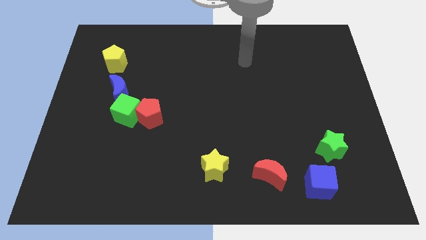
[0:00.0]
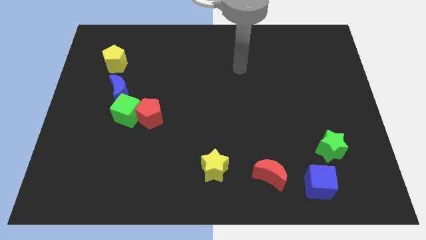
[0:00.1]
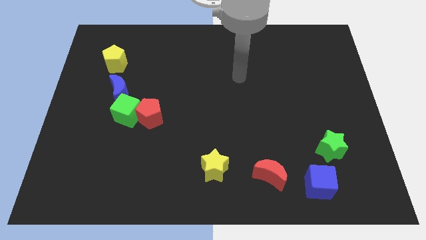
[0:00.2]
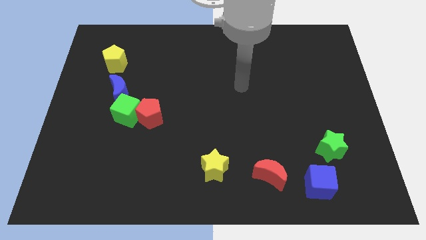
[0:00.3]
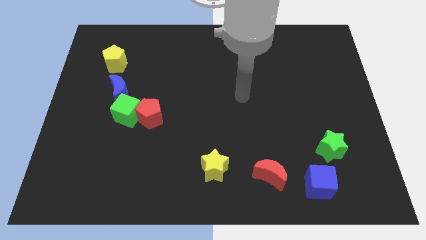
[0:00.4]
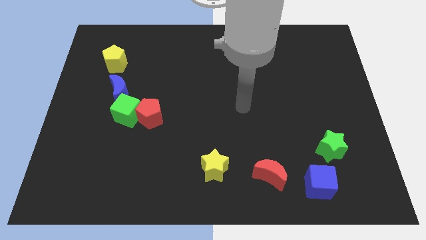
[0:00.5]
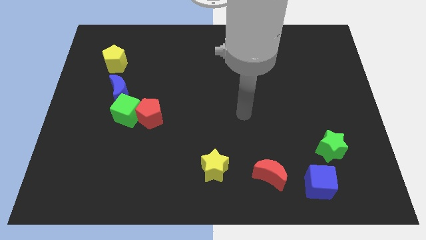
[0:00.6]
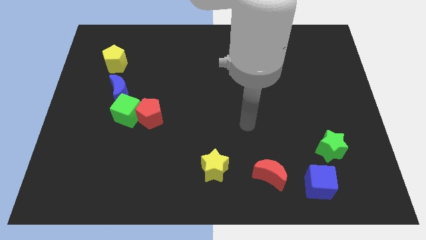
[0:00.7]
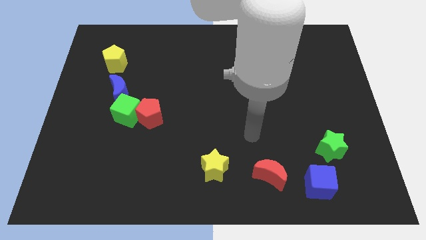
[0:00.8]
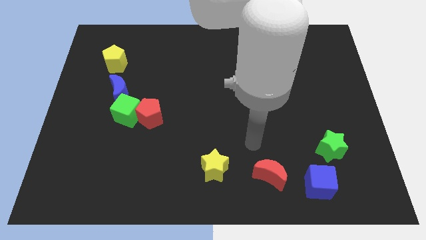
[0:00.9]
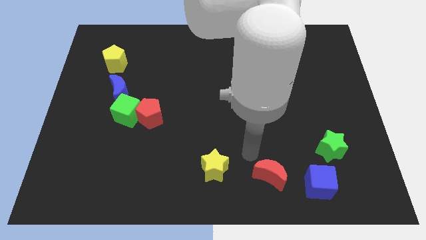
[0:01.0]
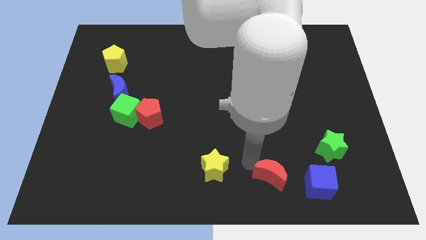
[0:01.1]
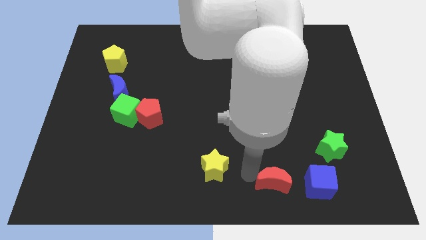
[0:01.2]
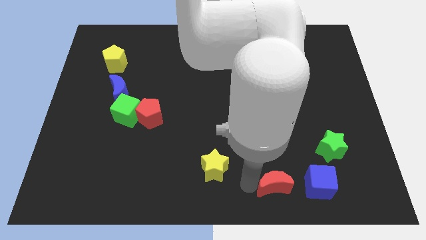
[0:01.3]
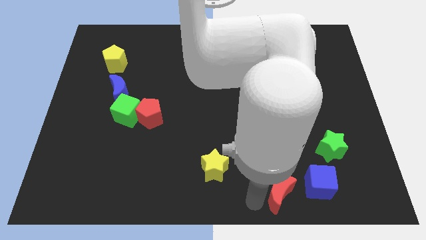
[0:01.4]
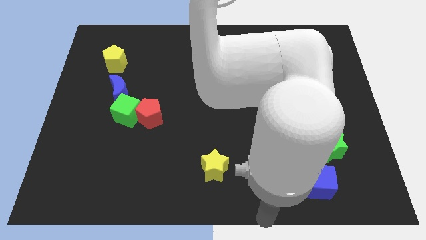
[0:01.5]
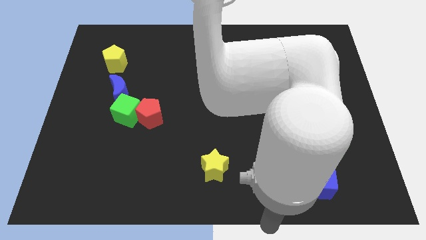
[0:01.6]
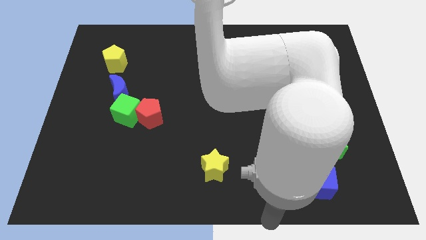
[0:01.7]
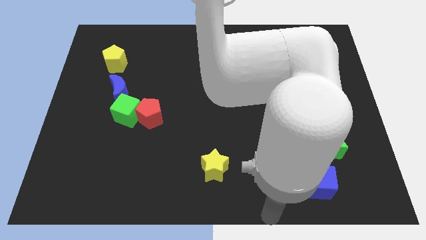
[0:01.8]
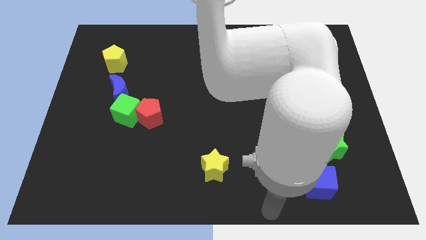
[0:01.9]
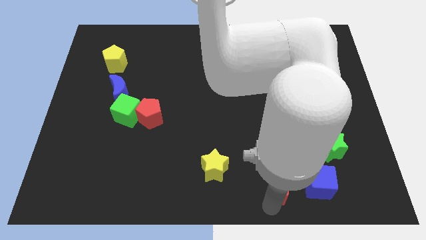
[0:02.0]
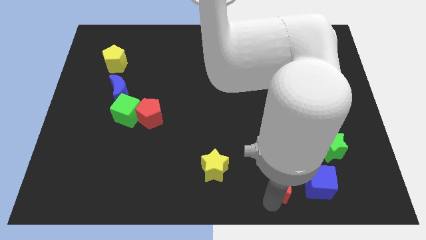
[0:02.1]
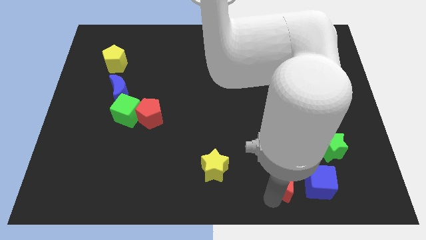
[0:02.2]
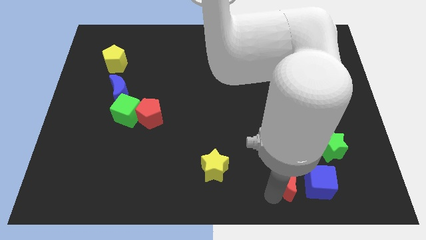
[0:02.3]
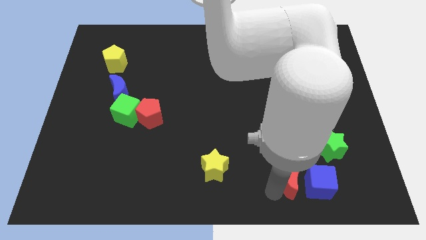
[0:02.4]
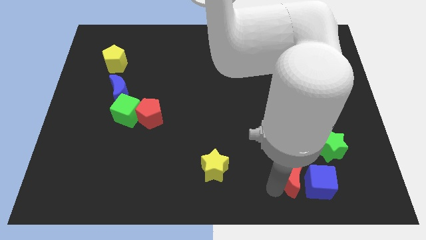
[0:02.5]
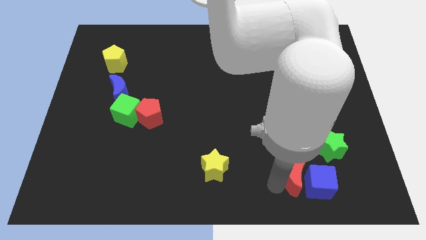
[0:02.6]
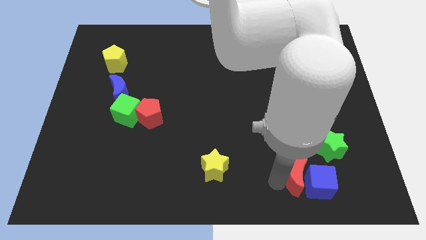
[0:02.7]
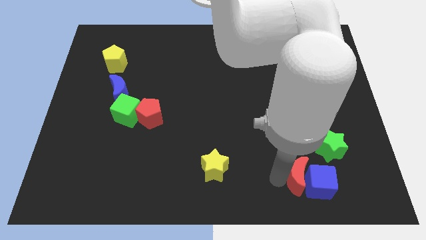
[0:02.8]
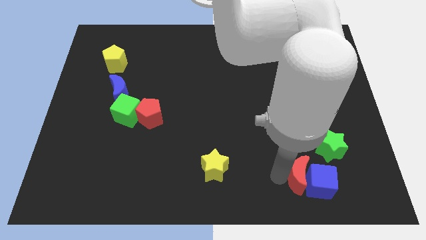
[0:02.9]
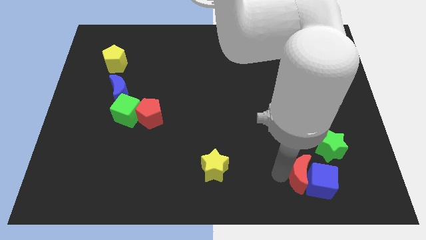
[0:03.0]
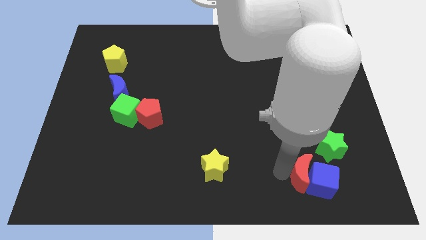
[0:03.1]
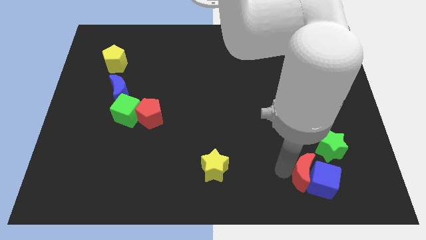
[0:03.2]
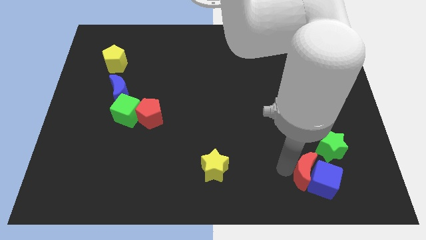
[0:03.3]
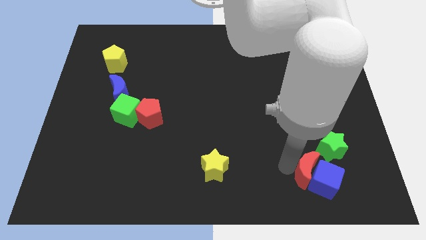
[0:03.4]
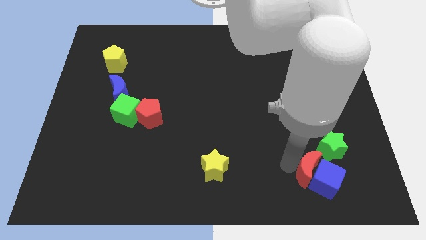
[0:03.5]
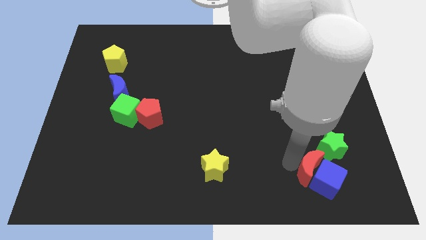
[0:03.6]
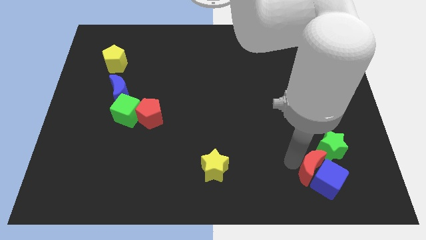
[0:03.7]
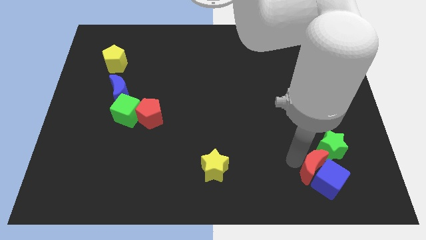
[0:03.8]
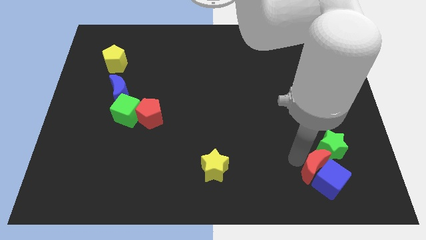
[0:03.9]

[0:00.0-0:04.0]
move the red moon diagonally up and to the right a little

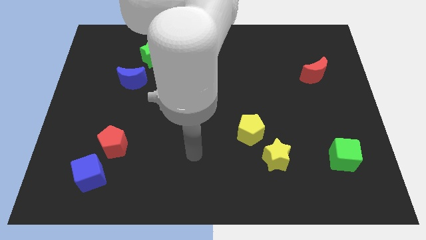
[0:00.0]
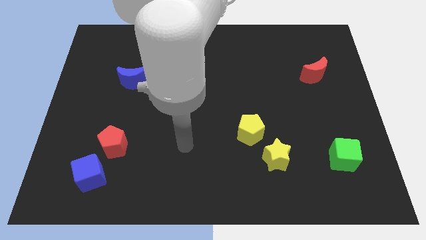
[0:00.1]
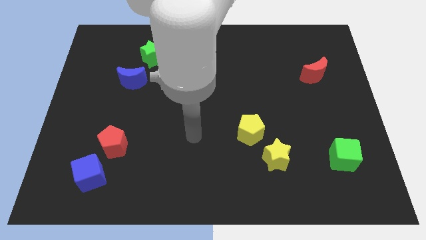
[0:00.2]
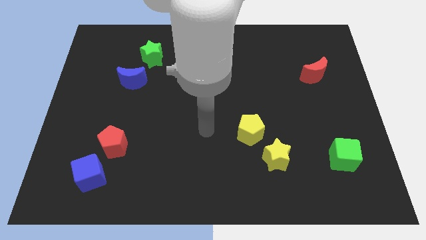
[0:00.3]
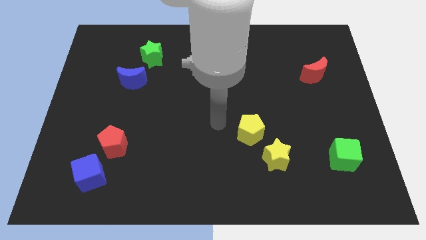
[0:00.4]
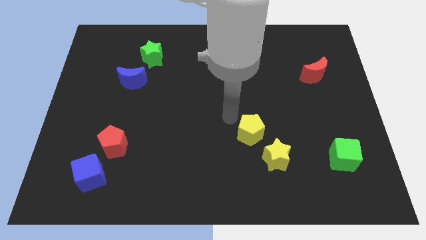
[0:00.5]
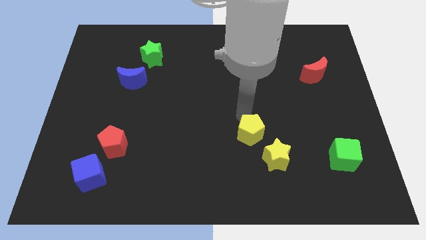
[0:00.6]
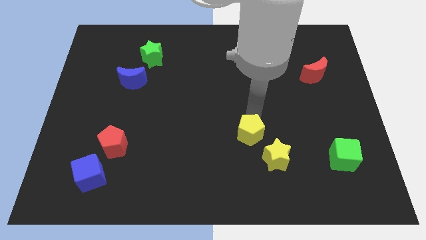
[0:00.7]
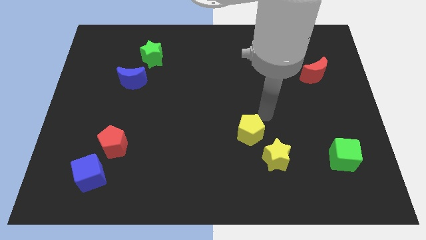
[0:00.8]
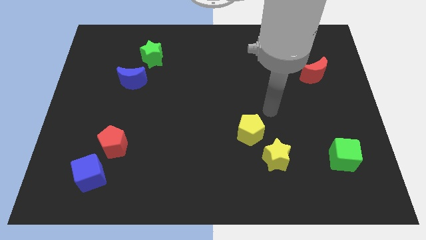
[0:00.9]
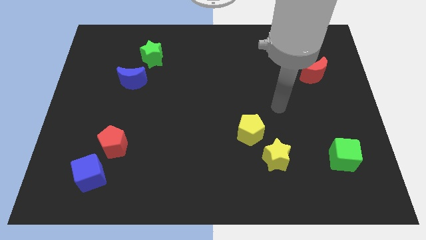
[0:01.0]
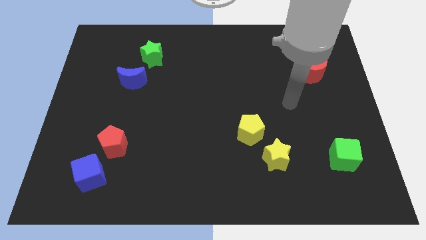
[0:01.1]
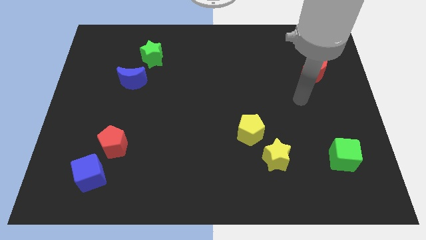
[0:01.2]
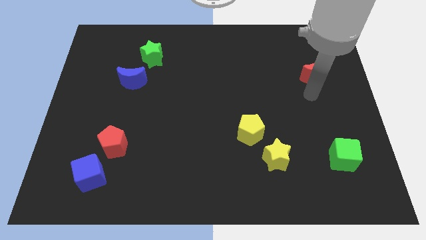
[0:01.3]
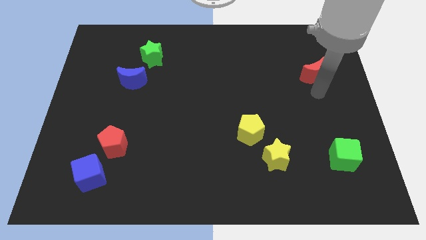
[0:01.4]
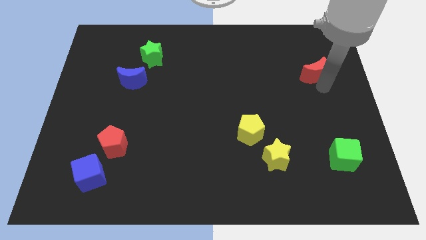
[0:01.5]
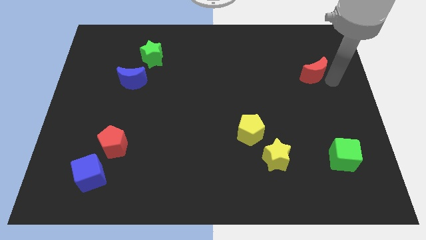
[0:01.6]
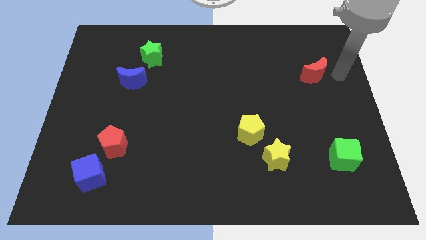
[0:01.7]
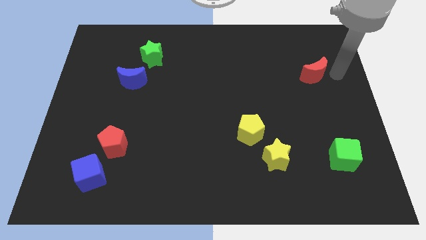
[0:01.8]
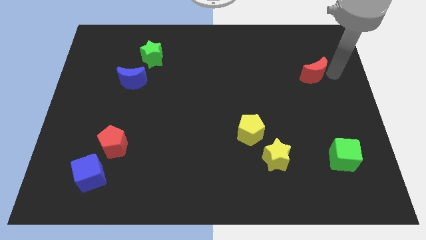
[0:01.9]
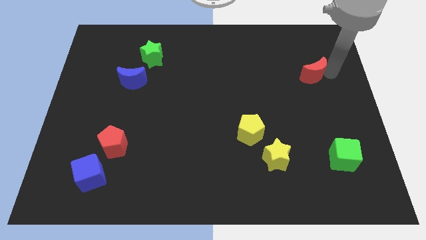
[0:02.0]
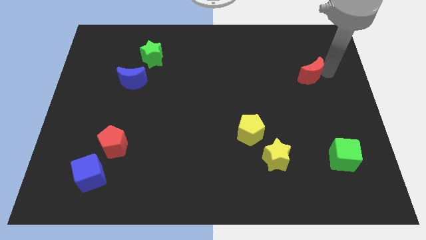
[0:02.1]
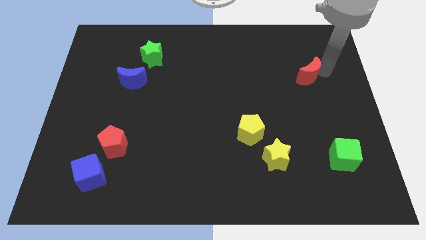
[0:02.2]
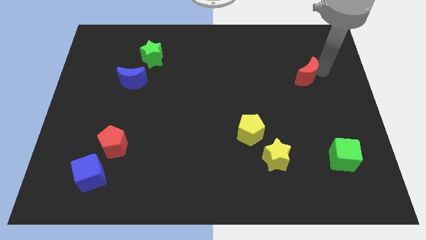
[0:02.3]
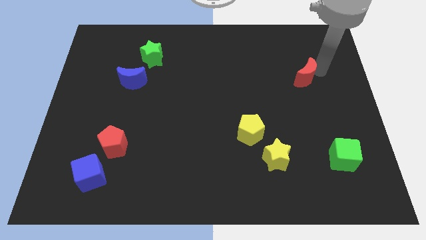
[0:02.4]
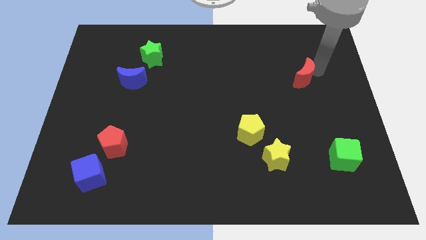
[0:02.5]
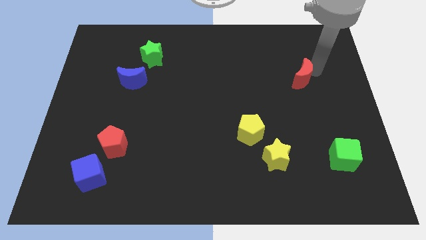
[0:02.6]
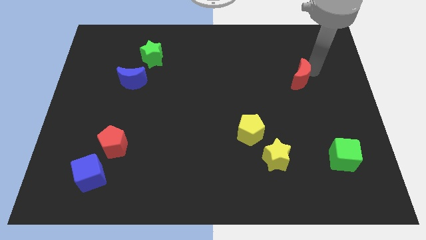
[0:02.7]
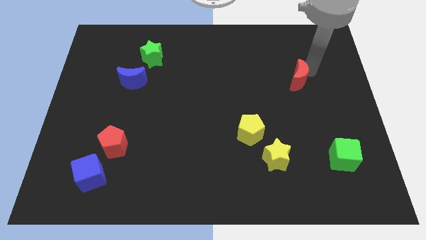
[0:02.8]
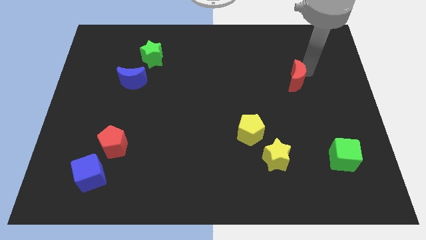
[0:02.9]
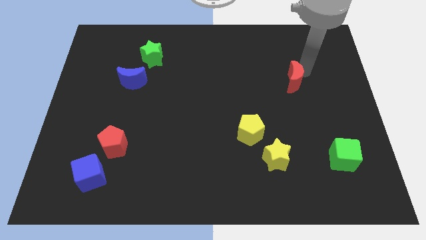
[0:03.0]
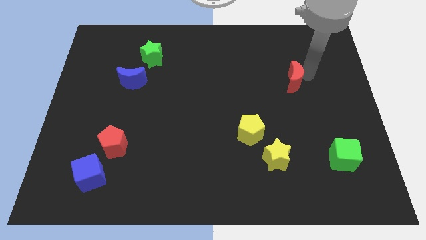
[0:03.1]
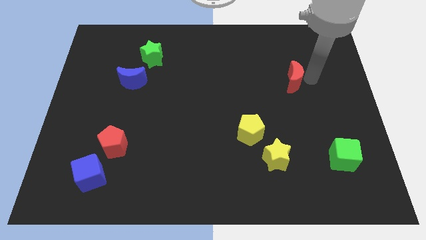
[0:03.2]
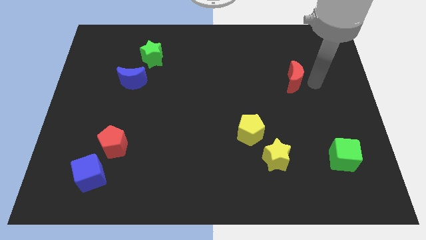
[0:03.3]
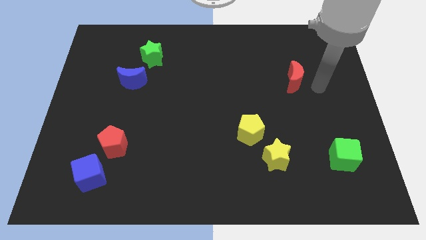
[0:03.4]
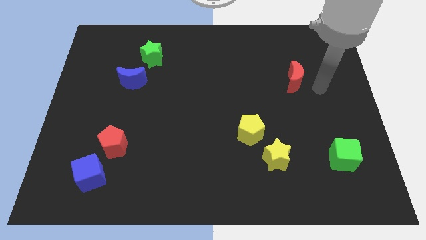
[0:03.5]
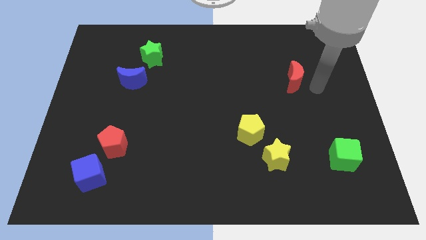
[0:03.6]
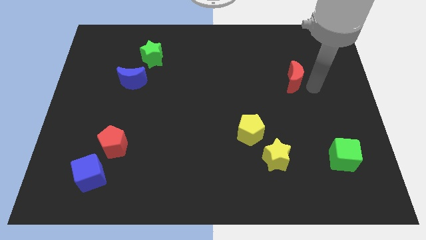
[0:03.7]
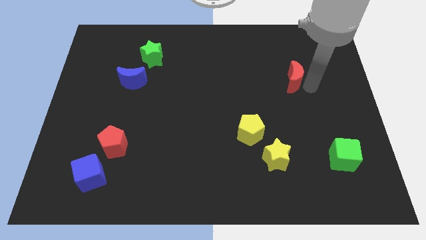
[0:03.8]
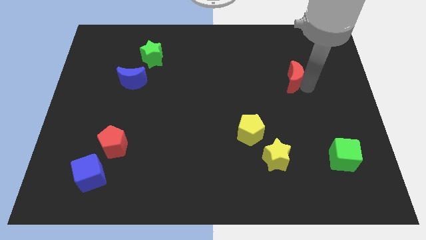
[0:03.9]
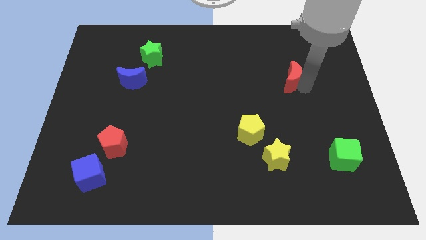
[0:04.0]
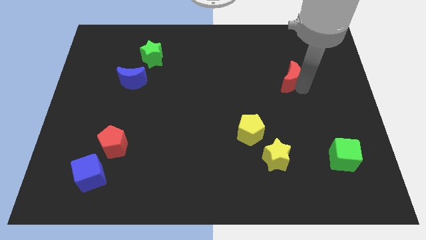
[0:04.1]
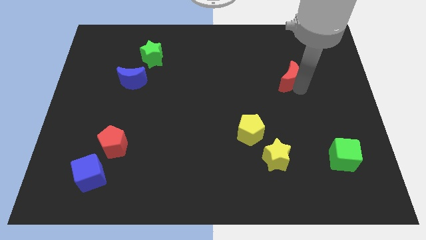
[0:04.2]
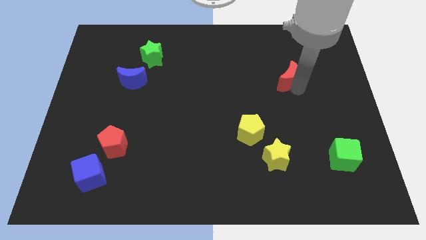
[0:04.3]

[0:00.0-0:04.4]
push the red moon left a bit
